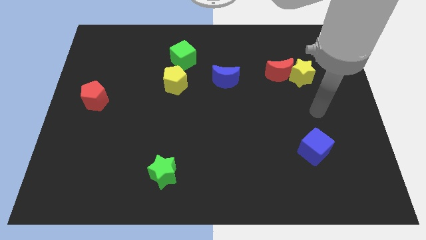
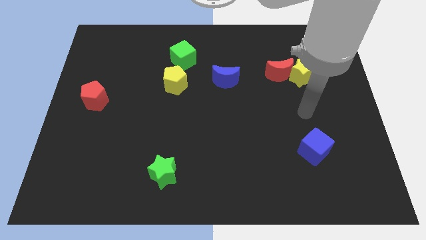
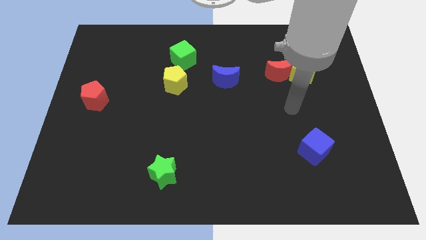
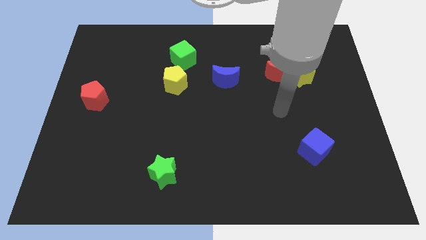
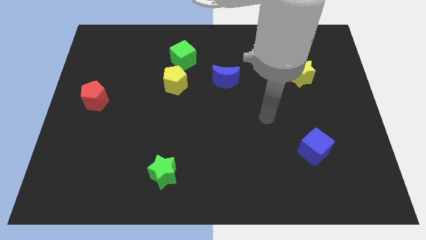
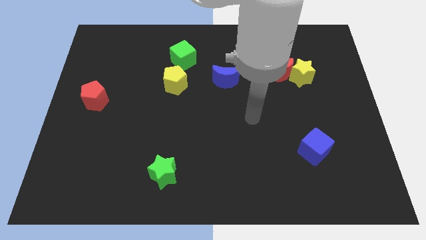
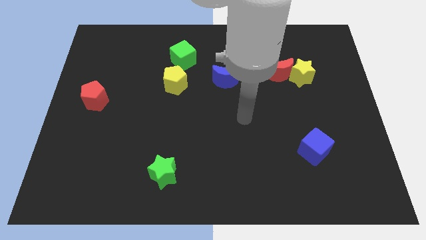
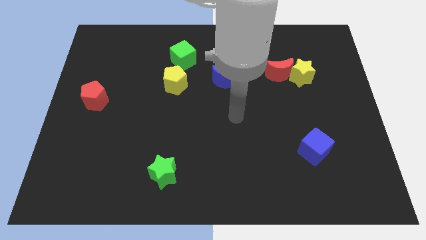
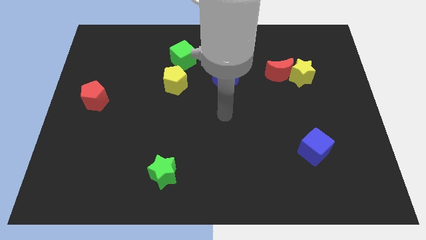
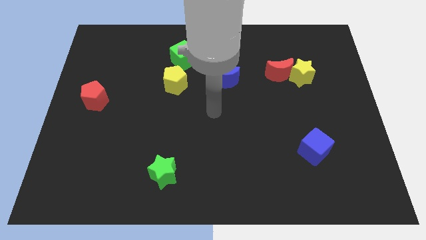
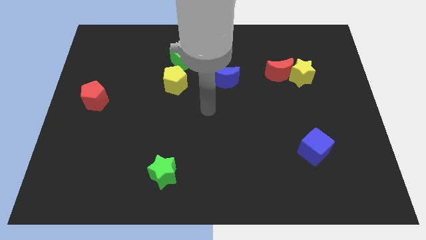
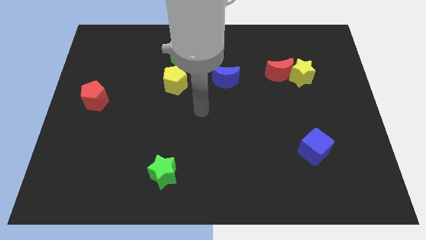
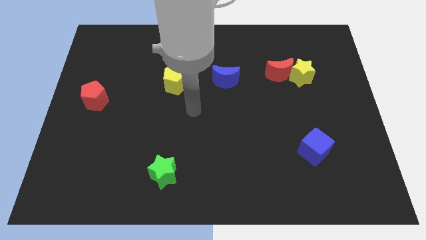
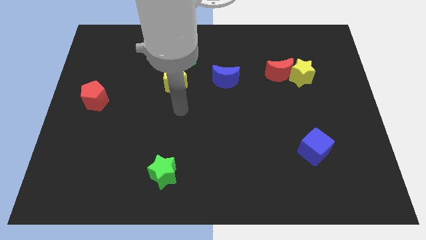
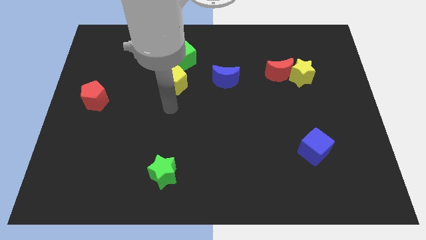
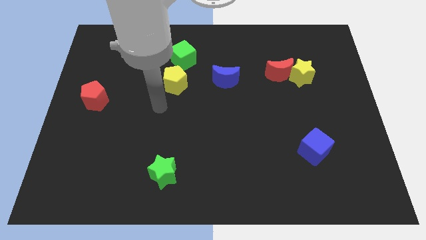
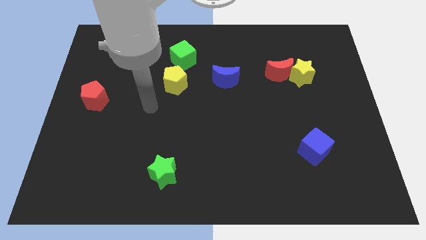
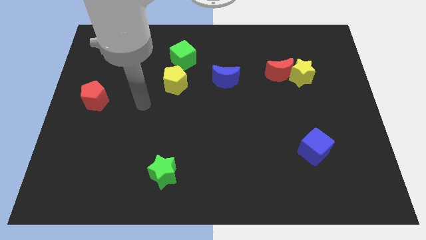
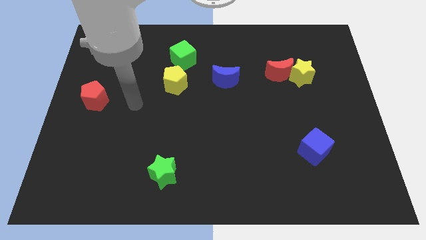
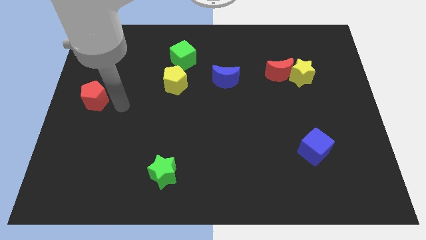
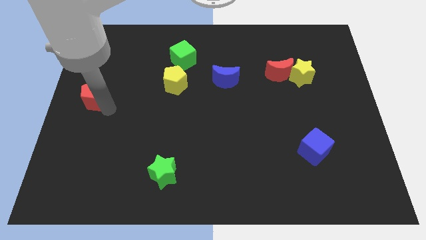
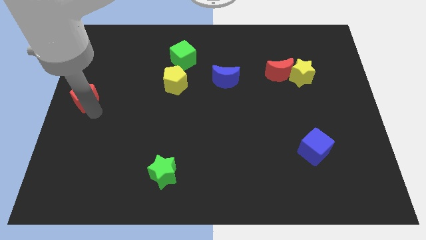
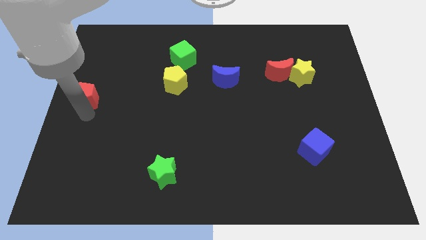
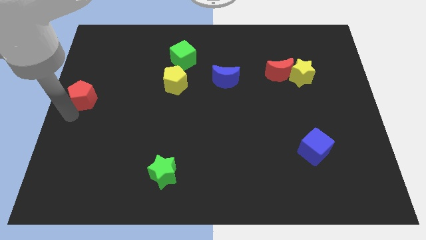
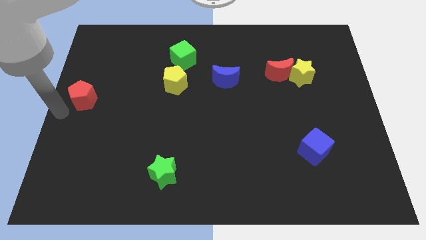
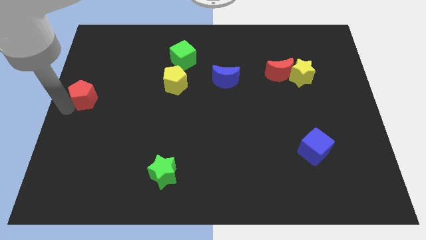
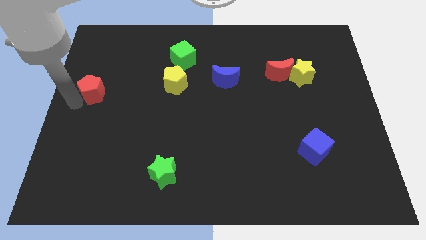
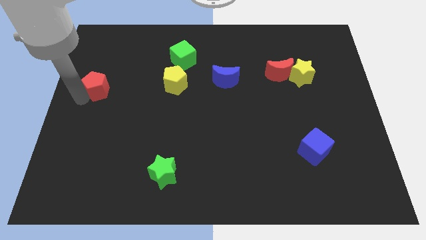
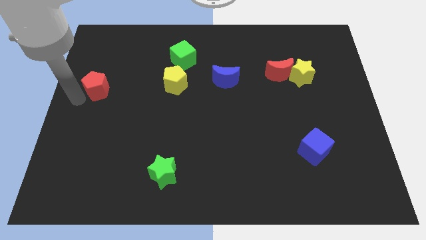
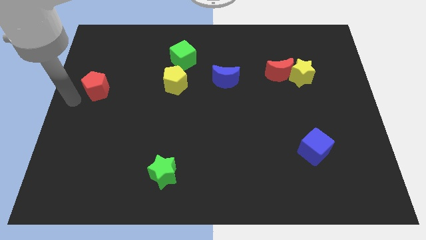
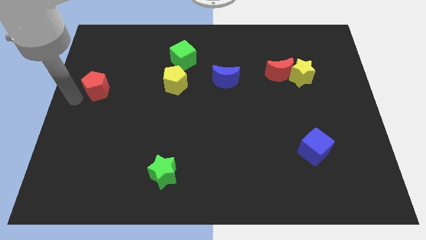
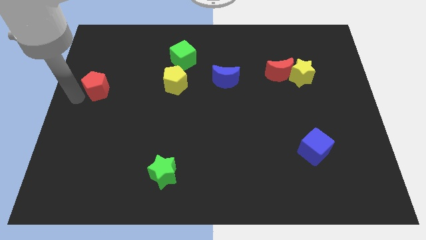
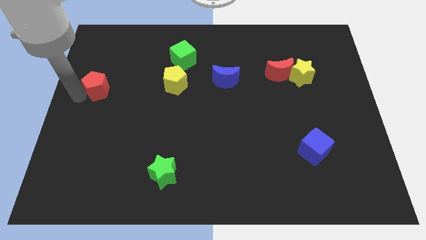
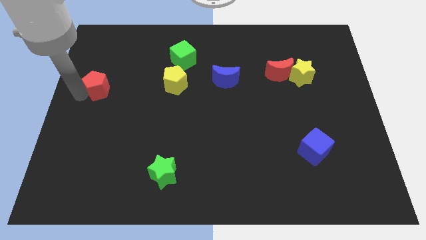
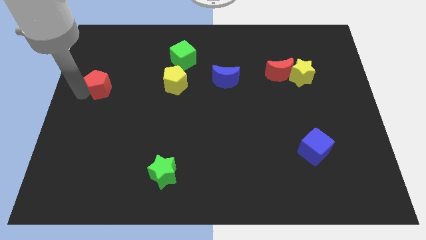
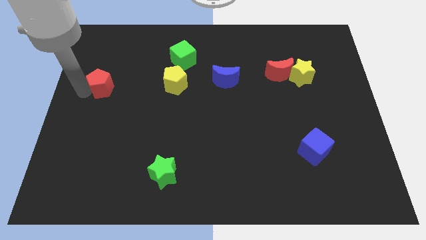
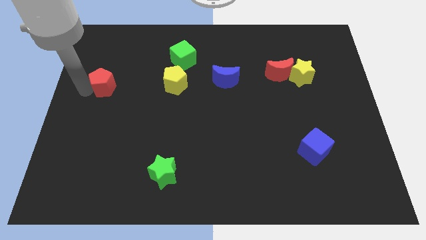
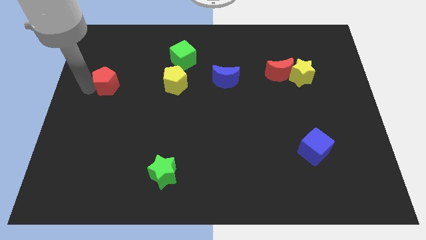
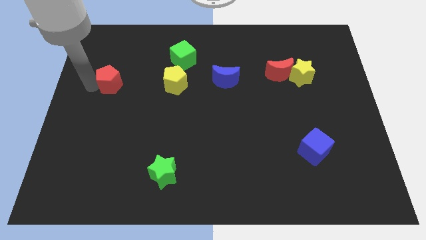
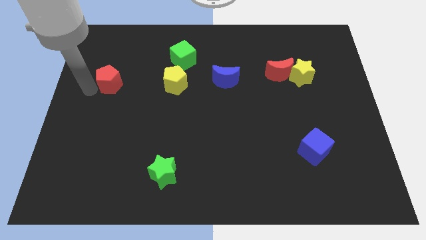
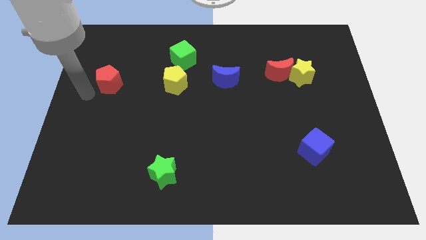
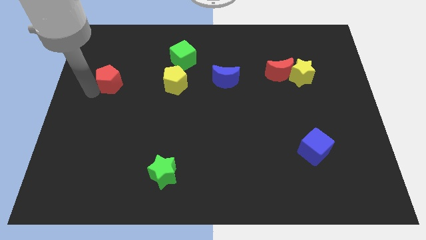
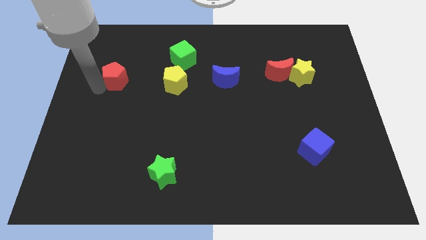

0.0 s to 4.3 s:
push the red pentagon upwards and right a bit

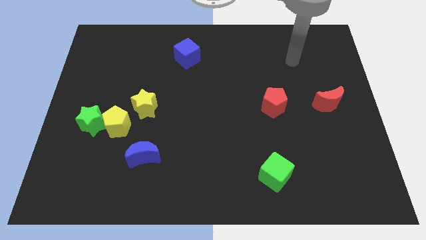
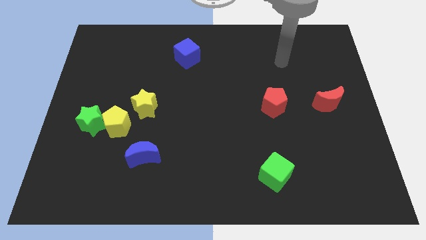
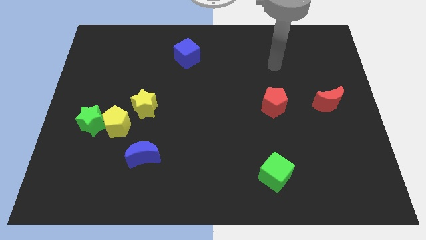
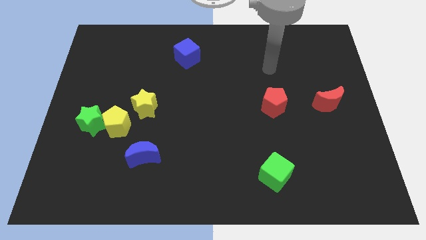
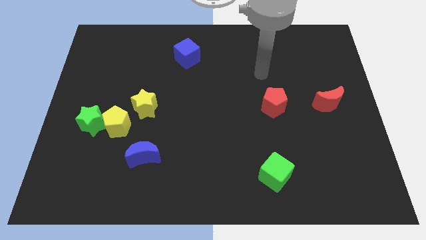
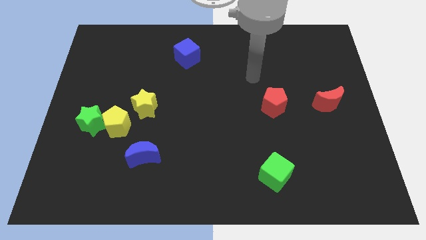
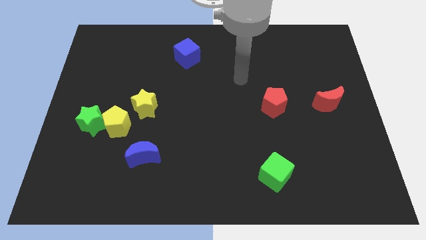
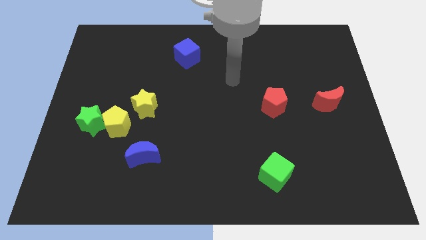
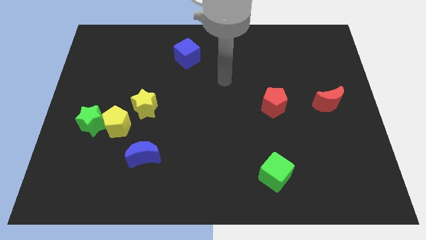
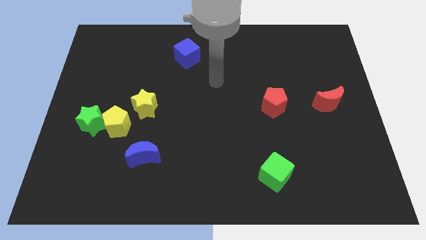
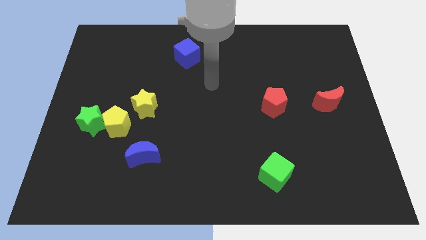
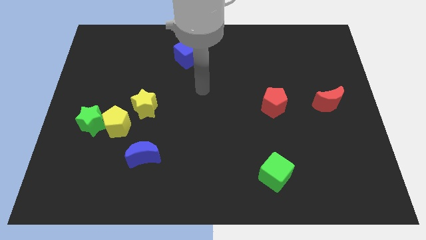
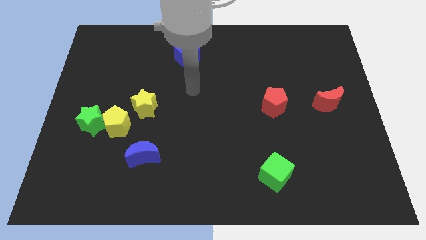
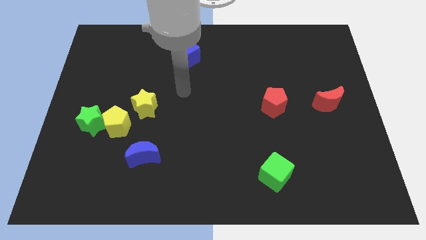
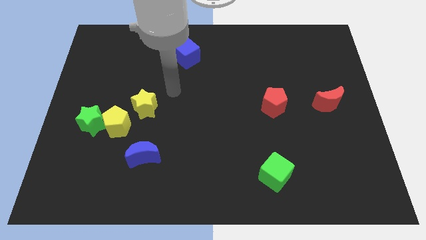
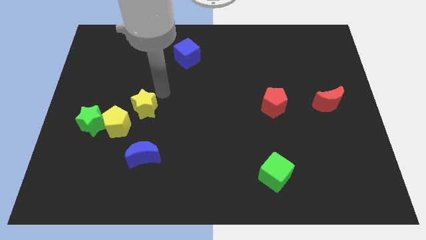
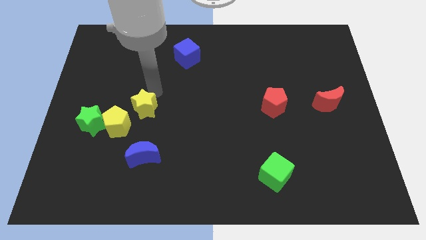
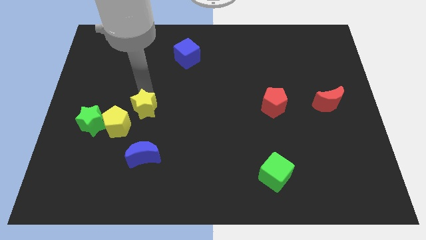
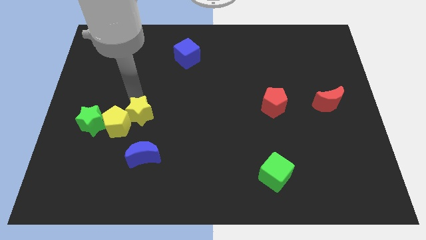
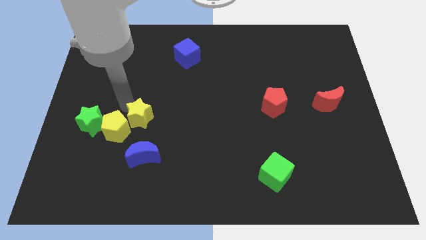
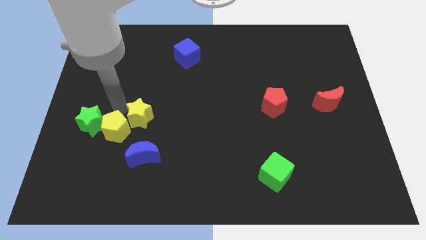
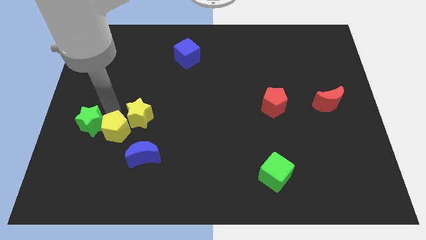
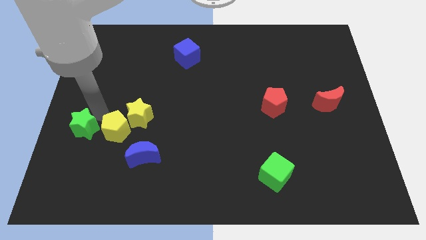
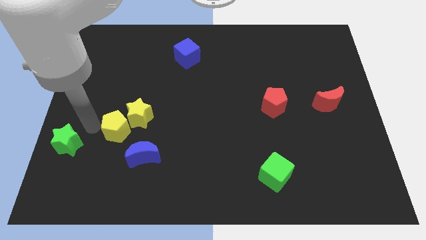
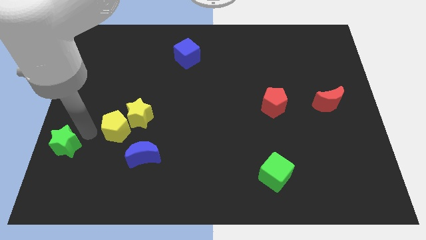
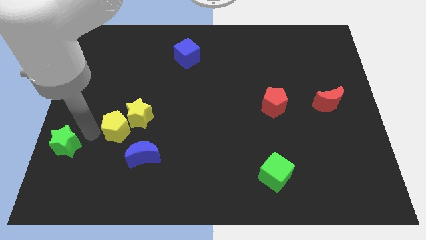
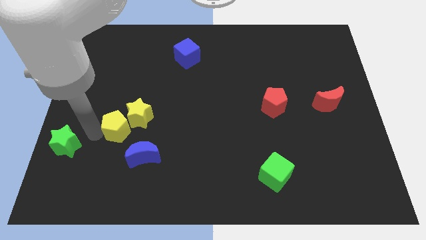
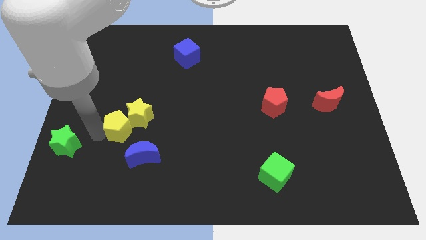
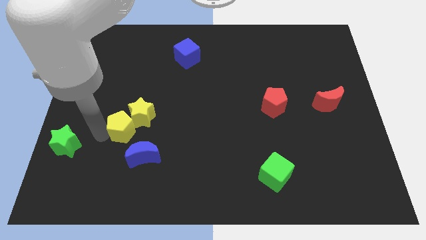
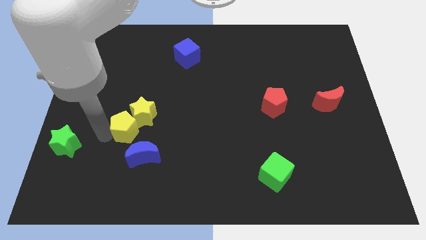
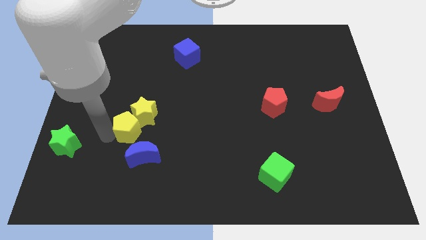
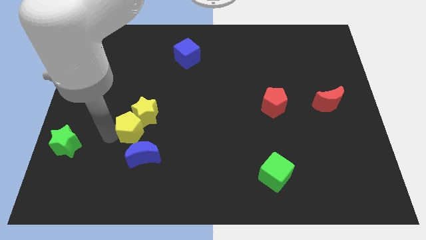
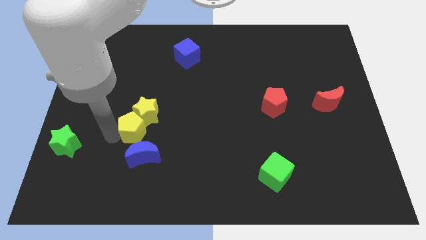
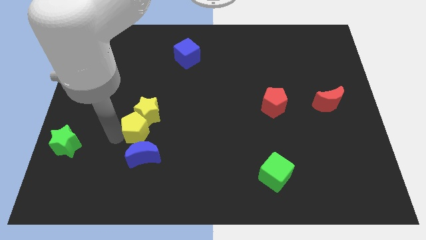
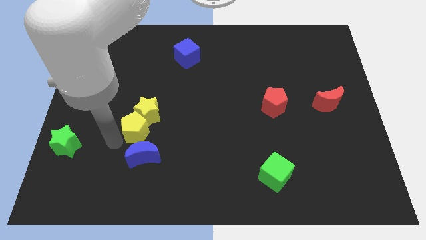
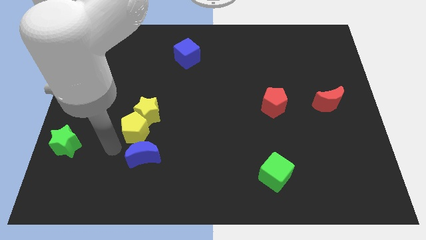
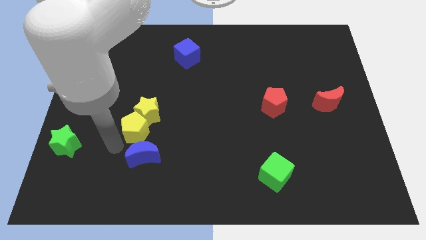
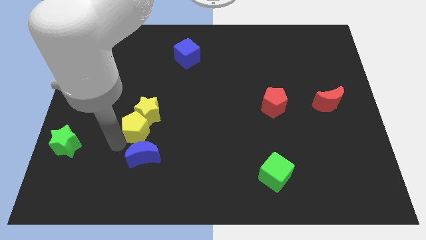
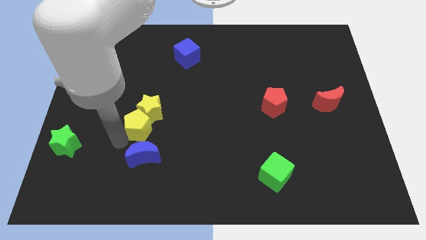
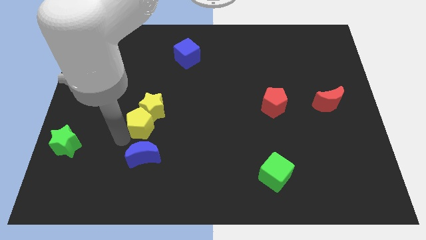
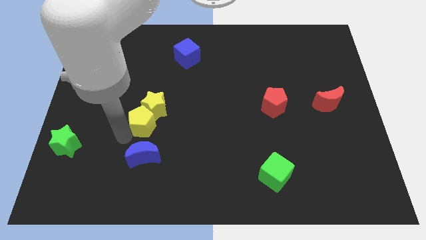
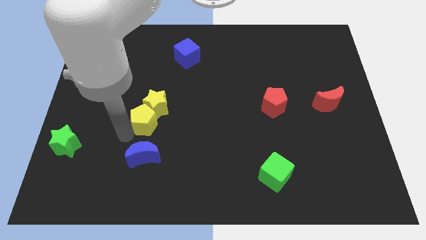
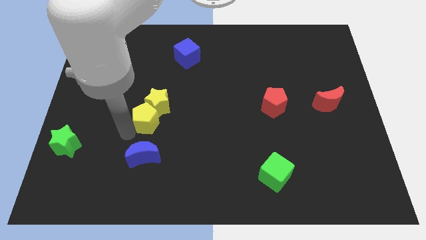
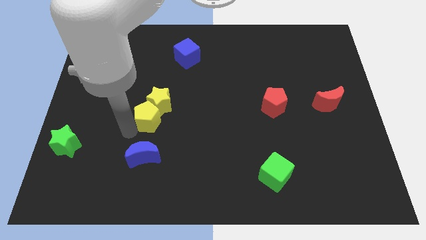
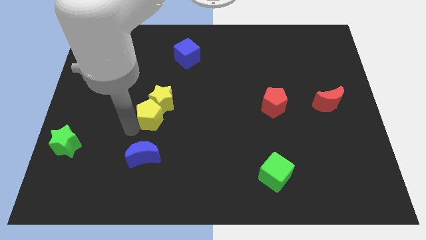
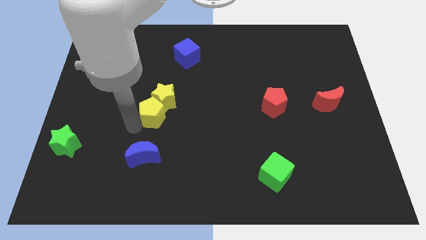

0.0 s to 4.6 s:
slide the yellow pentagon somewhat up and right
